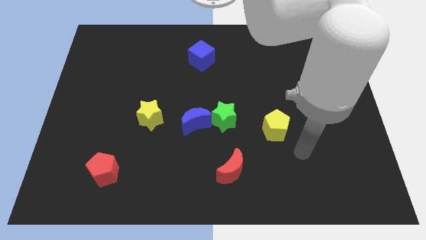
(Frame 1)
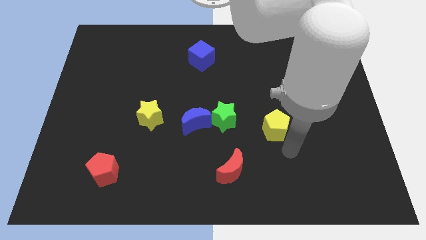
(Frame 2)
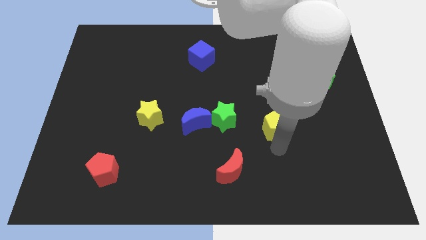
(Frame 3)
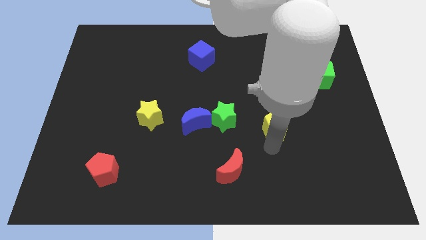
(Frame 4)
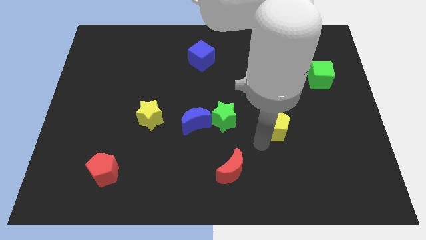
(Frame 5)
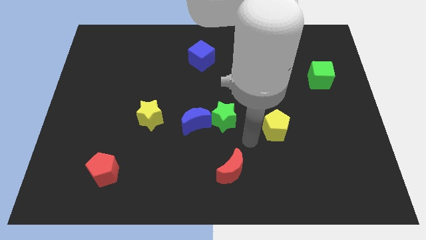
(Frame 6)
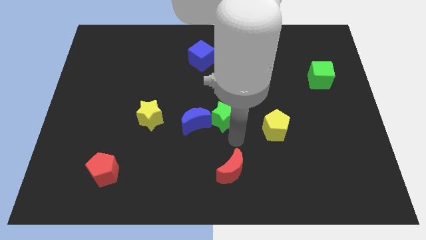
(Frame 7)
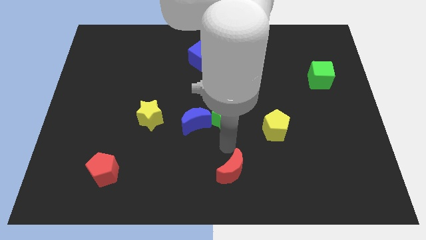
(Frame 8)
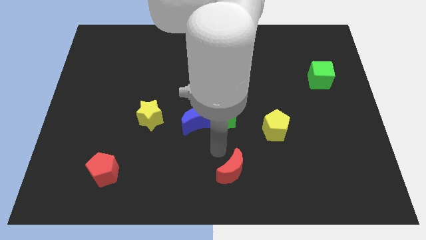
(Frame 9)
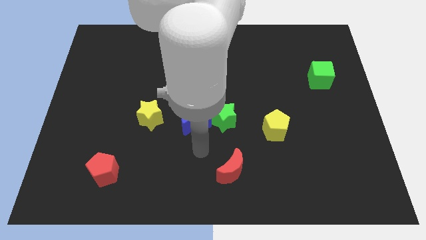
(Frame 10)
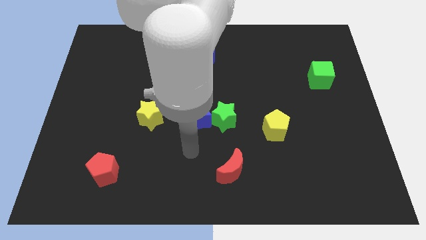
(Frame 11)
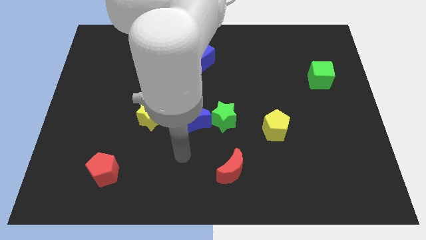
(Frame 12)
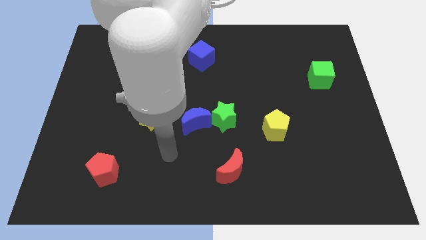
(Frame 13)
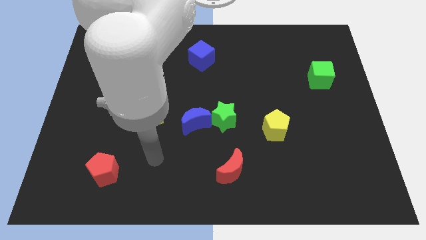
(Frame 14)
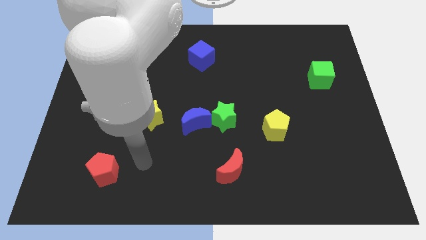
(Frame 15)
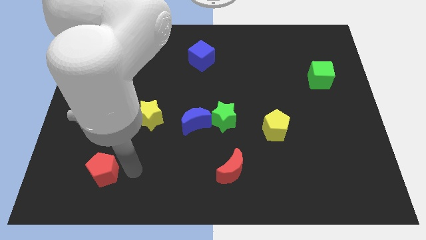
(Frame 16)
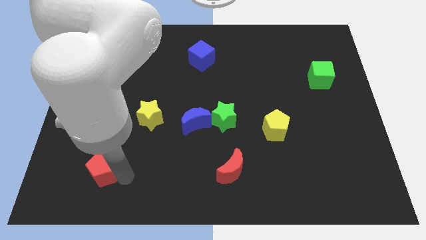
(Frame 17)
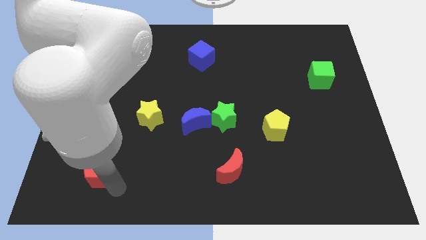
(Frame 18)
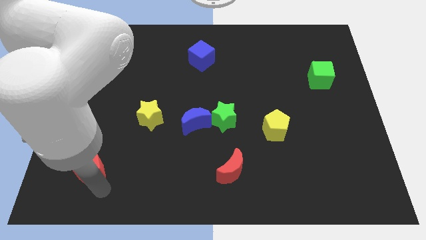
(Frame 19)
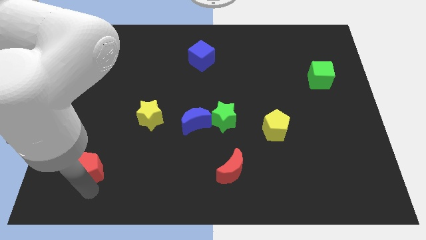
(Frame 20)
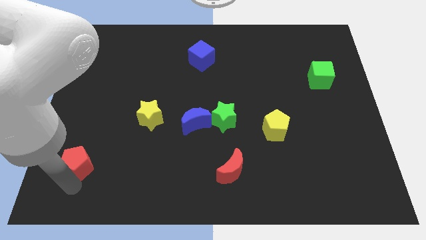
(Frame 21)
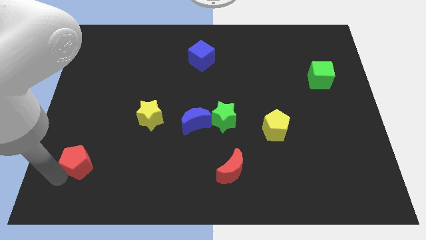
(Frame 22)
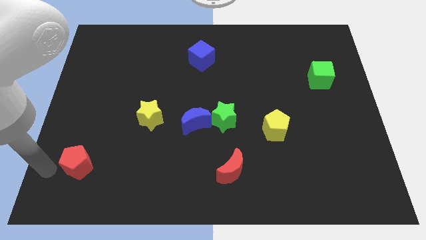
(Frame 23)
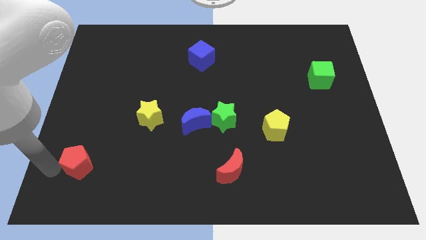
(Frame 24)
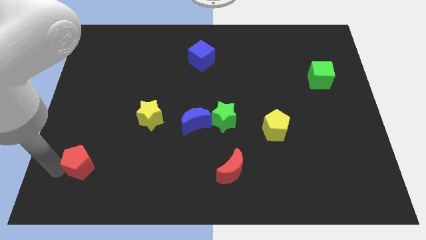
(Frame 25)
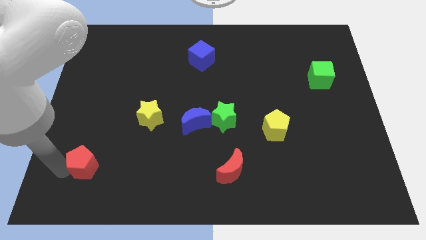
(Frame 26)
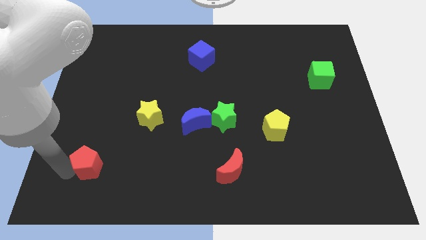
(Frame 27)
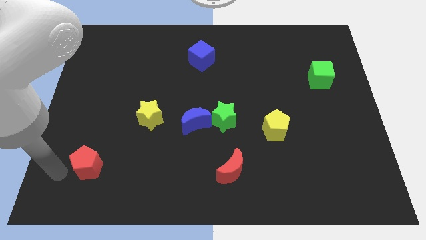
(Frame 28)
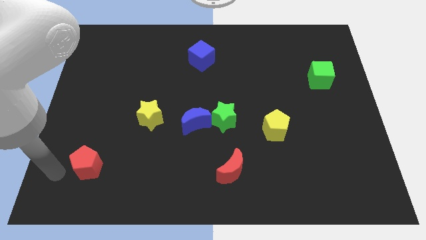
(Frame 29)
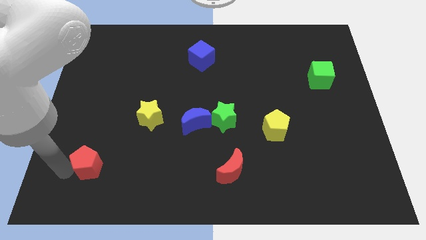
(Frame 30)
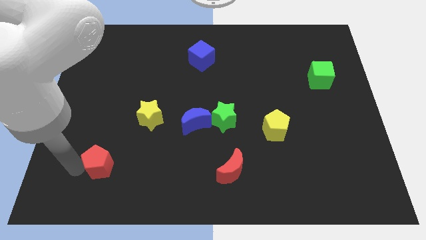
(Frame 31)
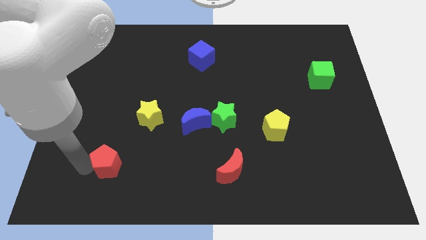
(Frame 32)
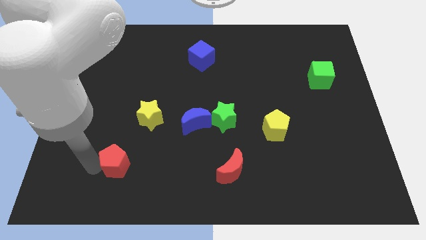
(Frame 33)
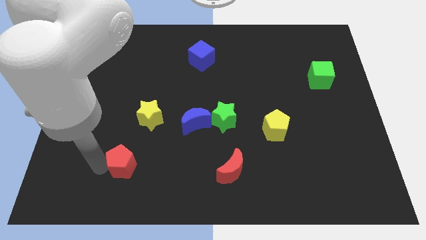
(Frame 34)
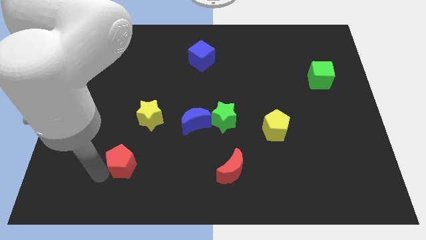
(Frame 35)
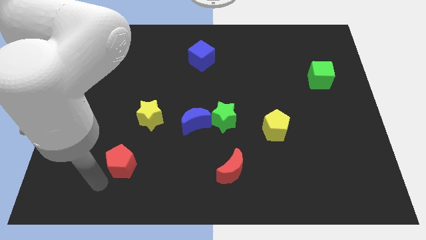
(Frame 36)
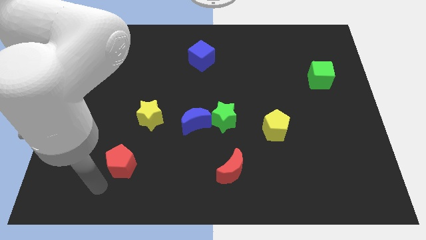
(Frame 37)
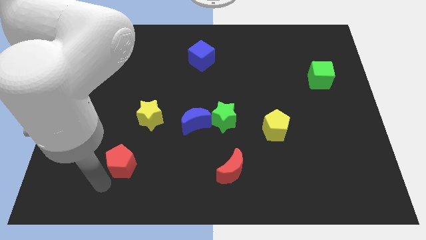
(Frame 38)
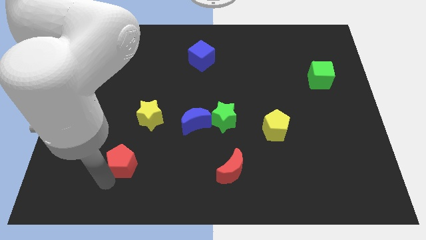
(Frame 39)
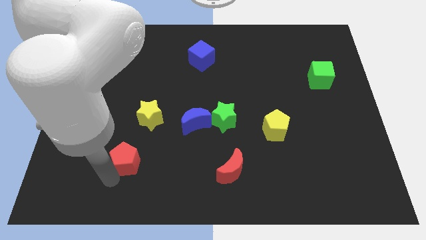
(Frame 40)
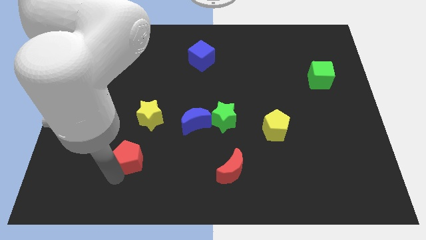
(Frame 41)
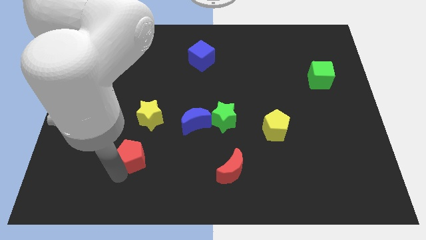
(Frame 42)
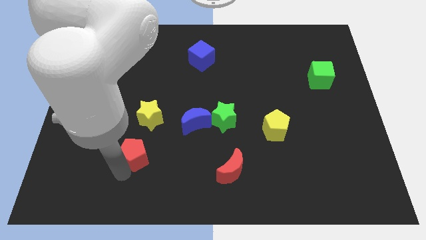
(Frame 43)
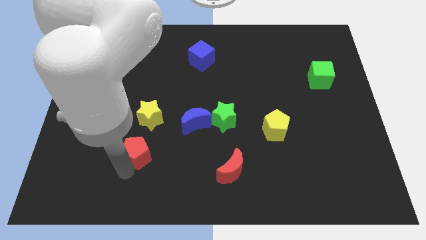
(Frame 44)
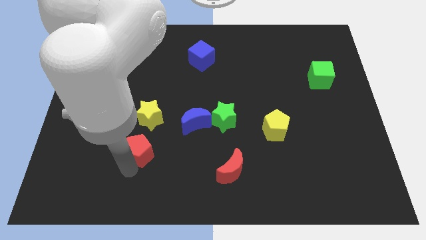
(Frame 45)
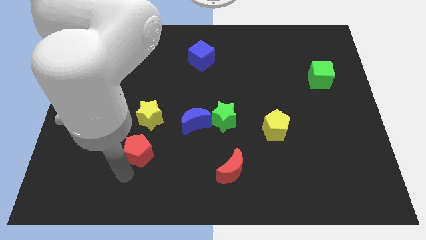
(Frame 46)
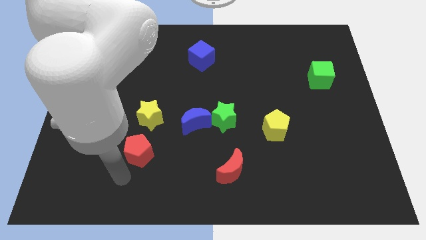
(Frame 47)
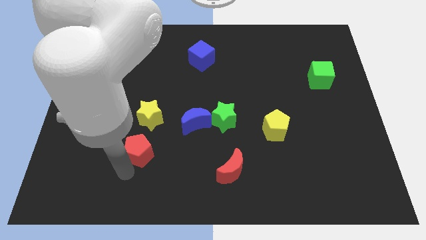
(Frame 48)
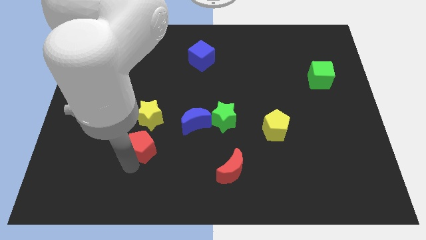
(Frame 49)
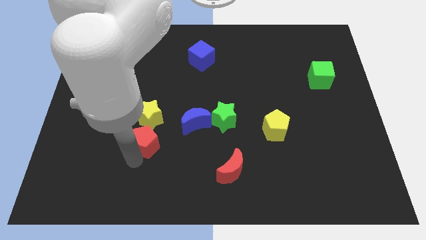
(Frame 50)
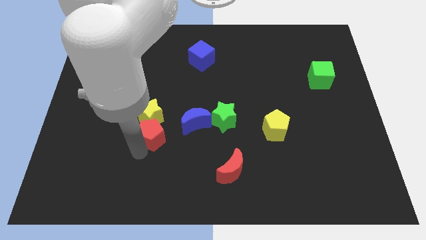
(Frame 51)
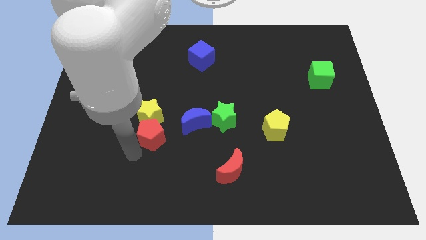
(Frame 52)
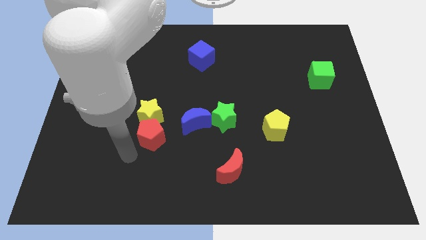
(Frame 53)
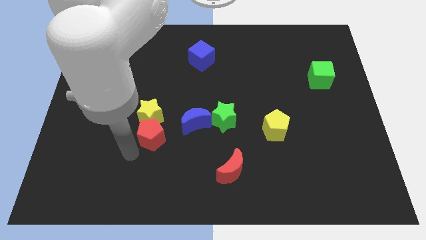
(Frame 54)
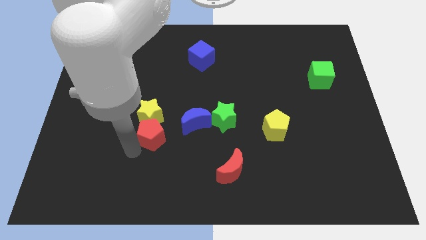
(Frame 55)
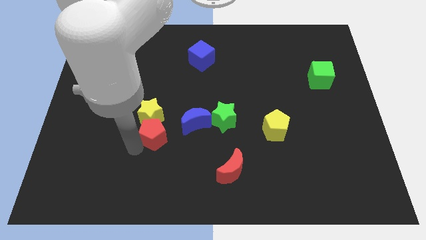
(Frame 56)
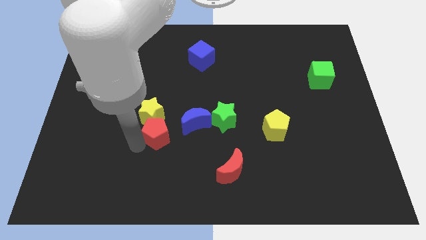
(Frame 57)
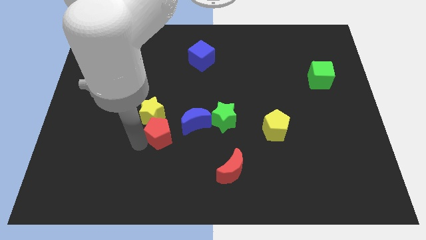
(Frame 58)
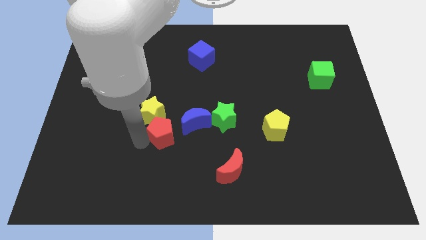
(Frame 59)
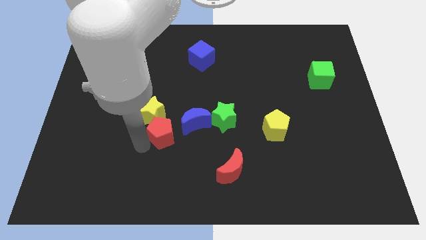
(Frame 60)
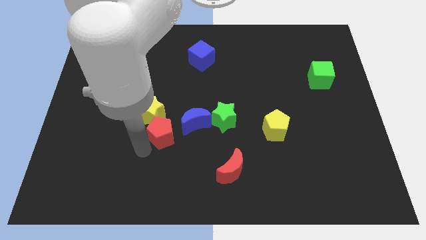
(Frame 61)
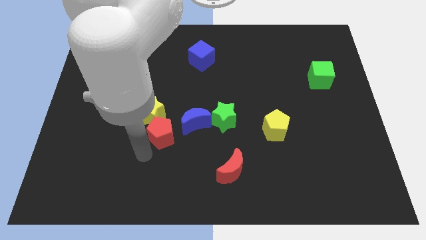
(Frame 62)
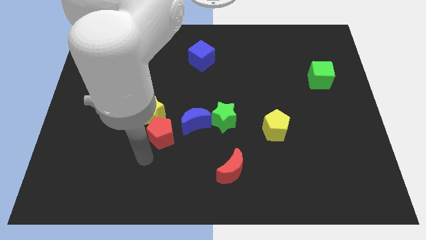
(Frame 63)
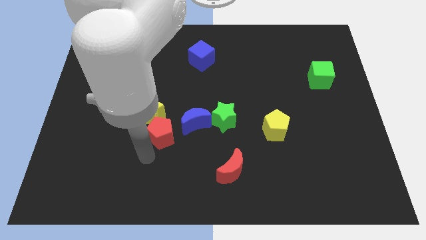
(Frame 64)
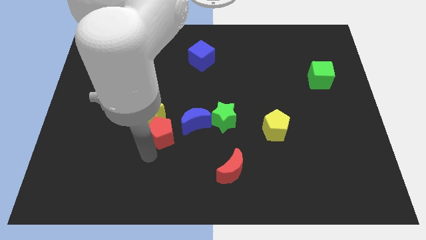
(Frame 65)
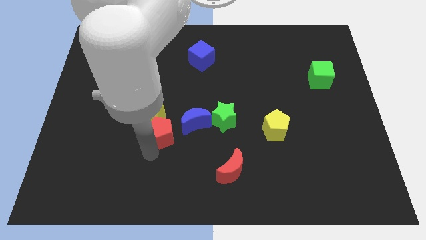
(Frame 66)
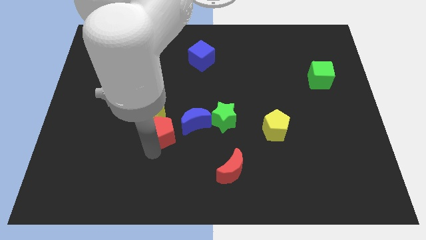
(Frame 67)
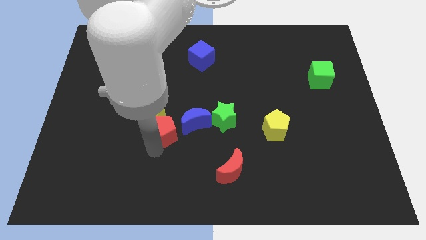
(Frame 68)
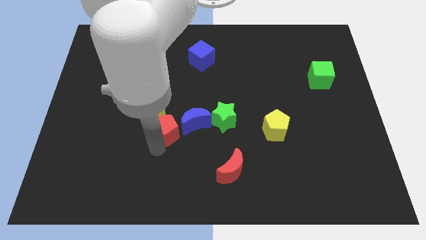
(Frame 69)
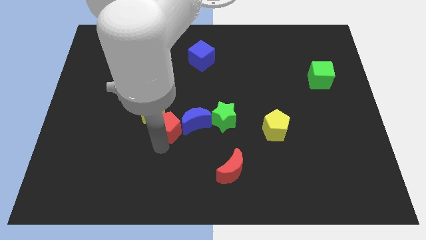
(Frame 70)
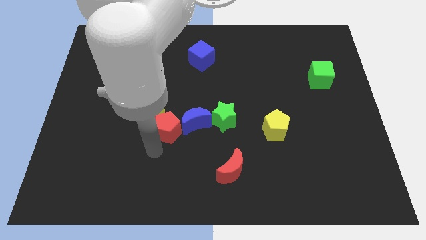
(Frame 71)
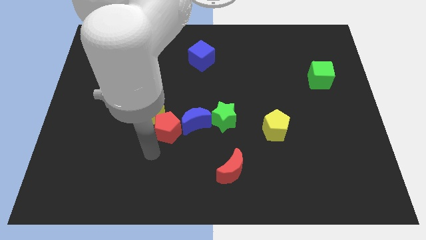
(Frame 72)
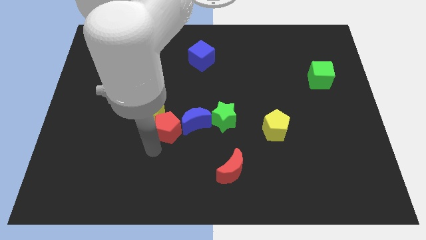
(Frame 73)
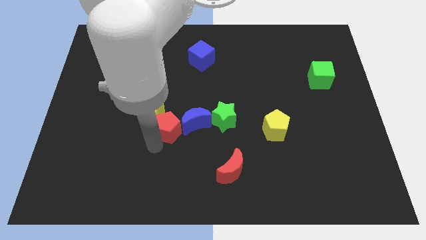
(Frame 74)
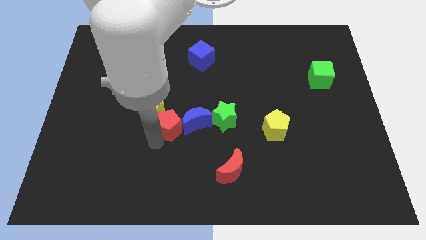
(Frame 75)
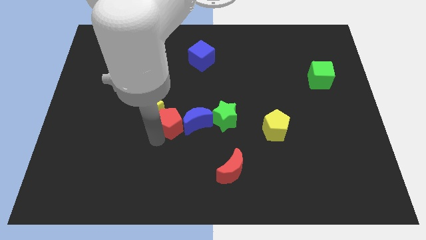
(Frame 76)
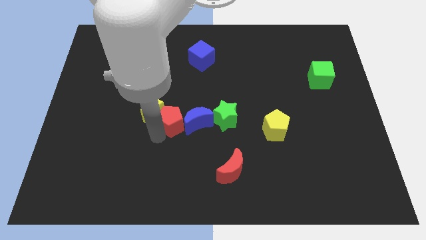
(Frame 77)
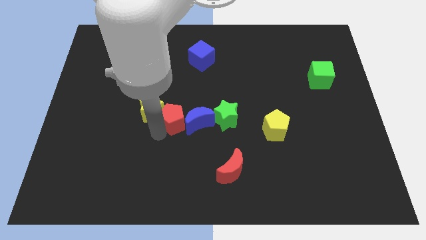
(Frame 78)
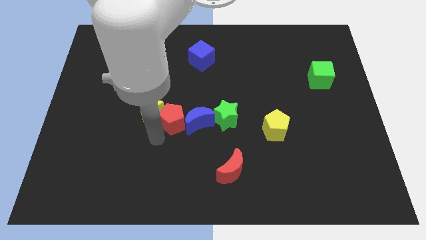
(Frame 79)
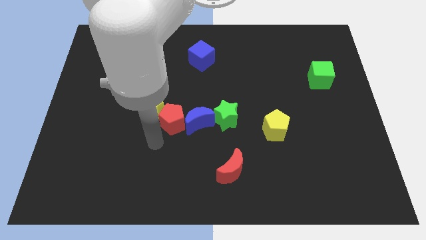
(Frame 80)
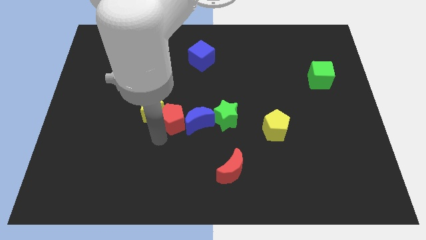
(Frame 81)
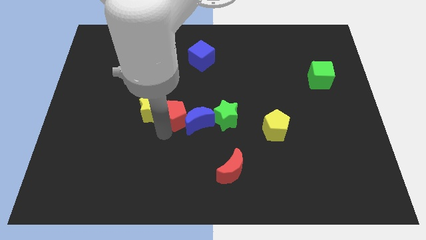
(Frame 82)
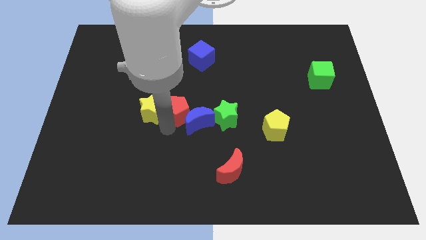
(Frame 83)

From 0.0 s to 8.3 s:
move the red pentagon upwards and right
